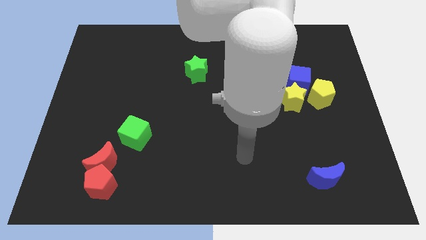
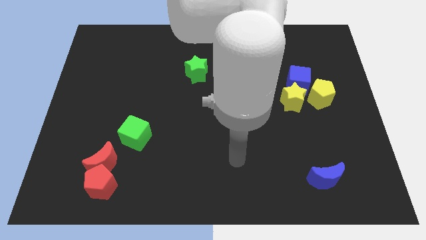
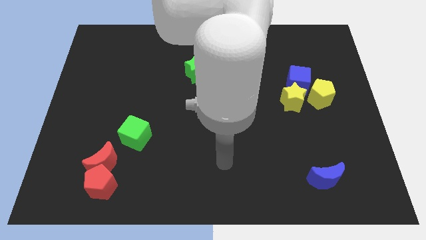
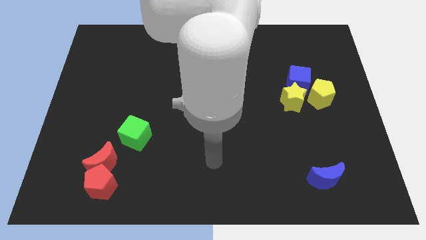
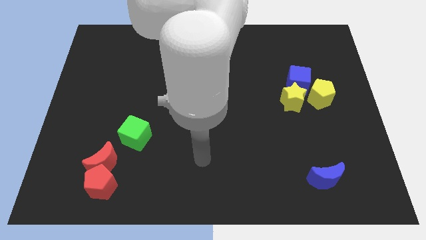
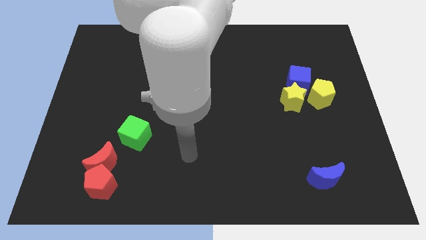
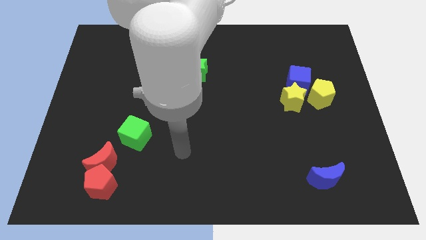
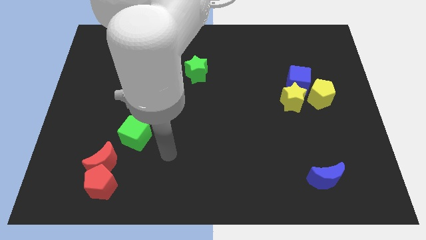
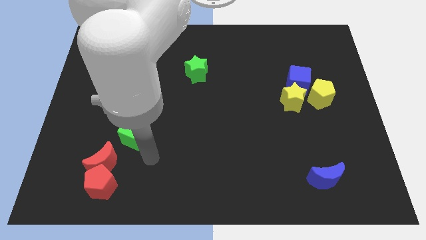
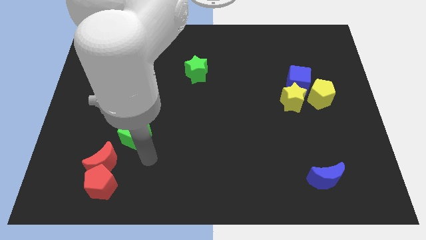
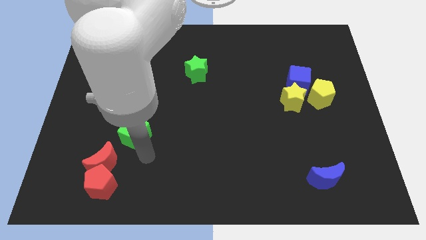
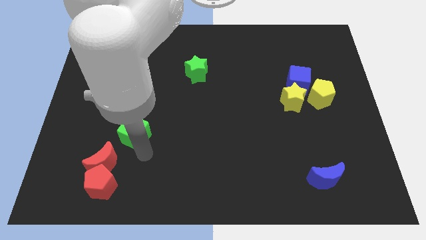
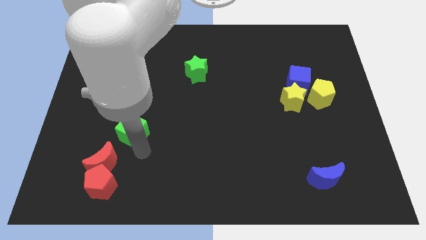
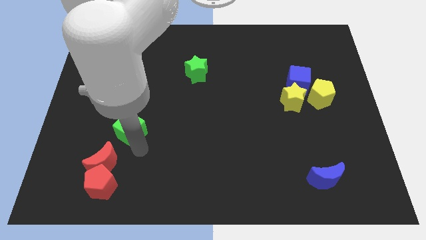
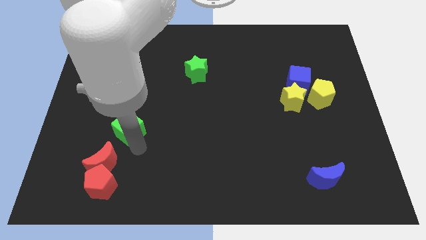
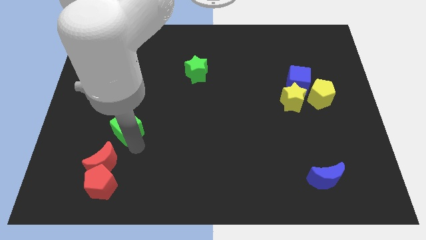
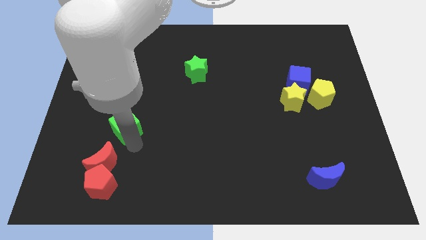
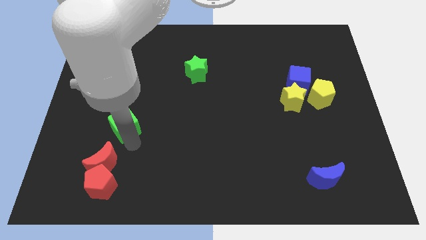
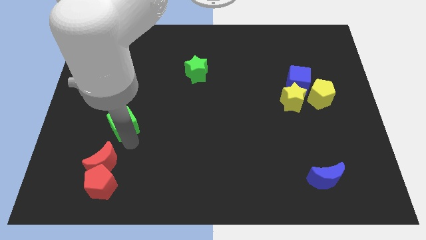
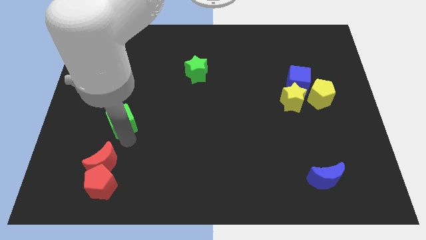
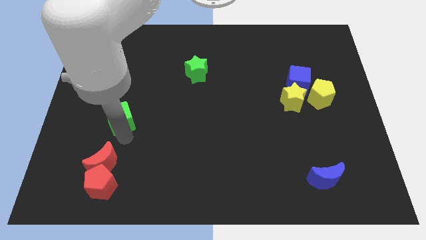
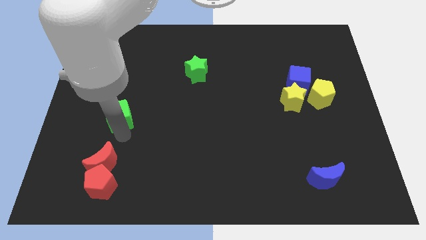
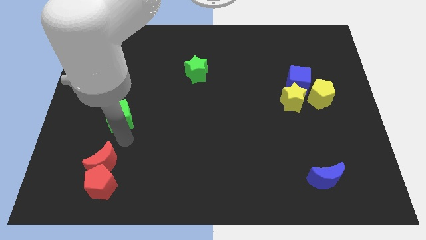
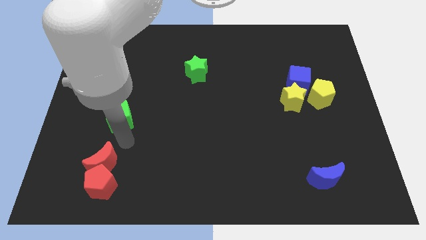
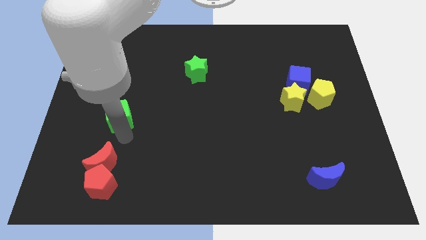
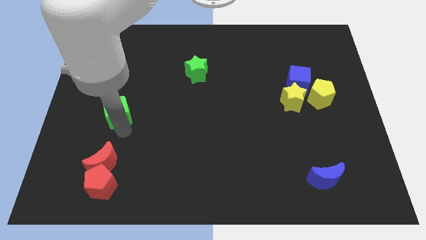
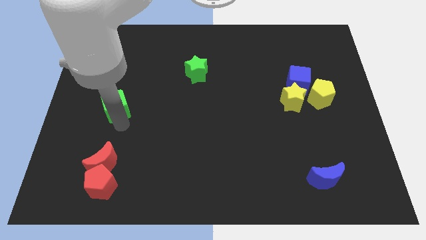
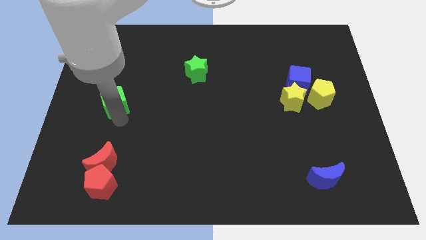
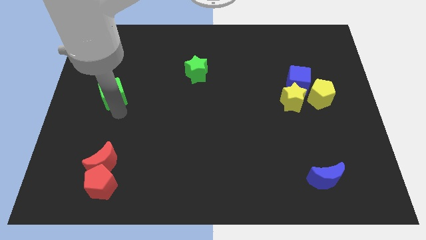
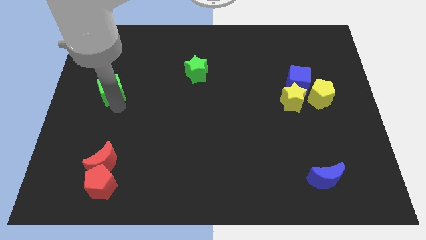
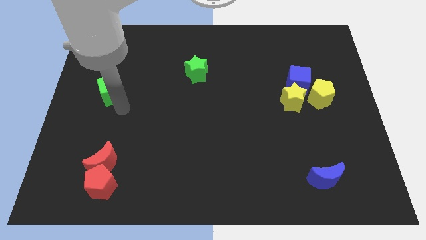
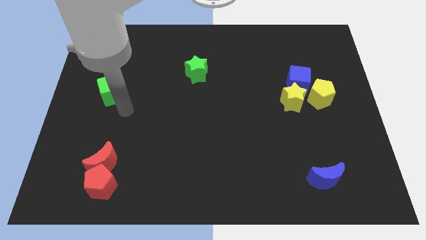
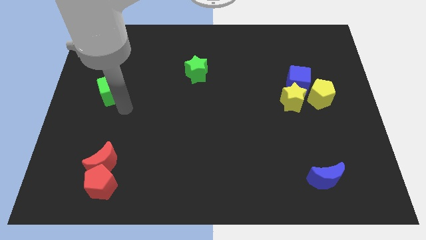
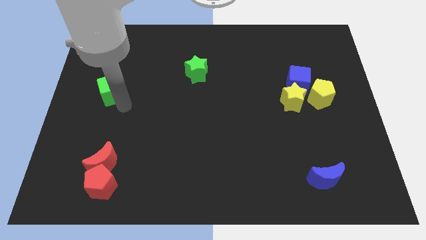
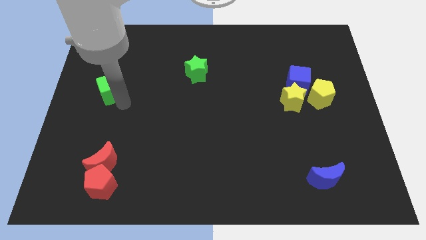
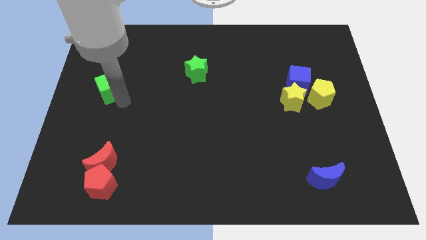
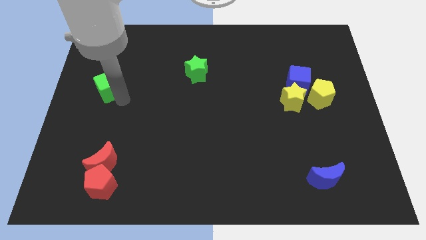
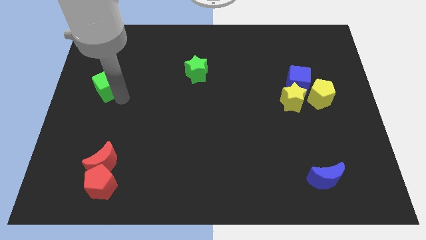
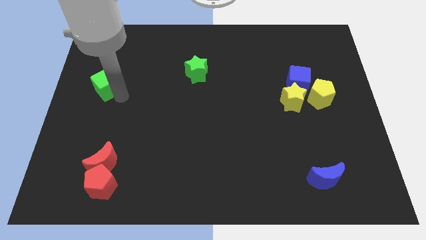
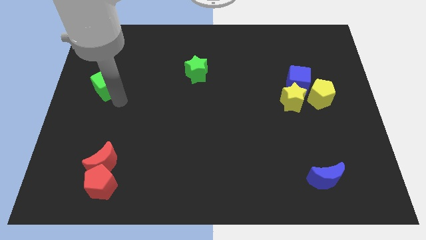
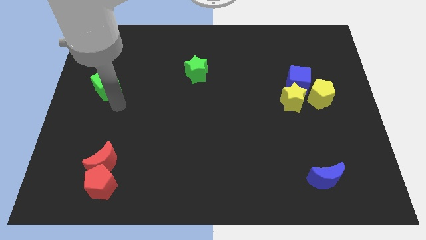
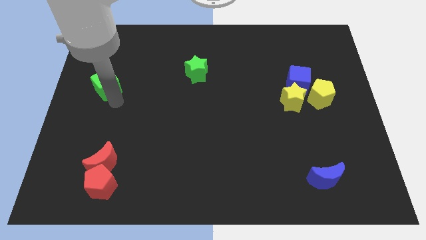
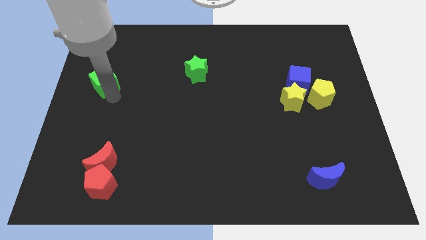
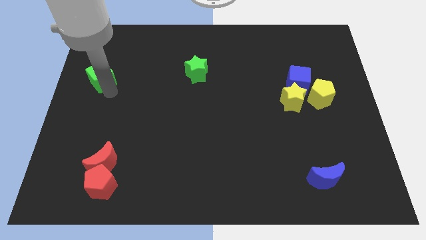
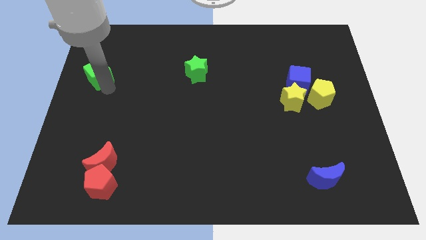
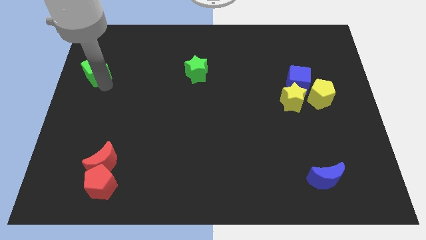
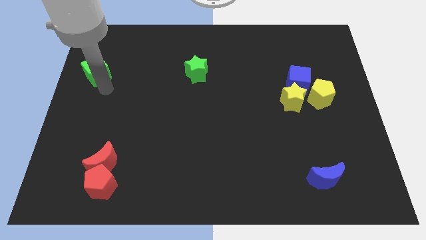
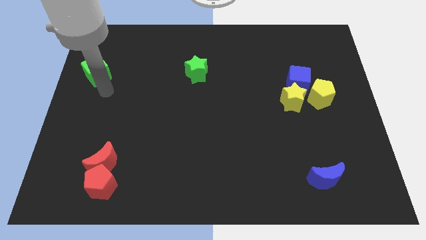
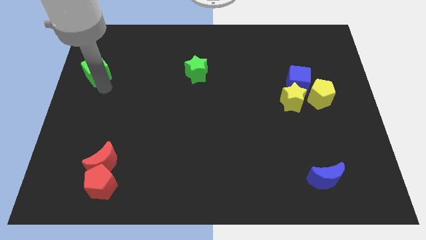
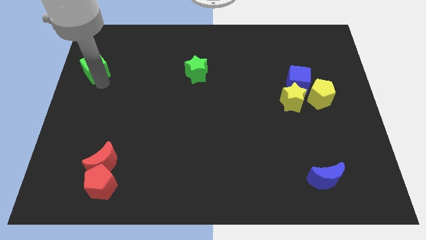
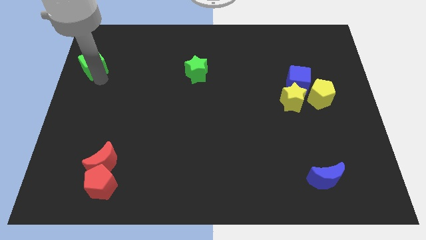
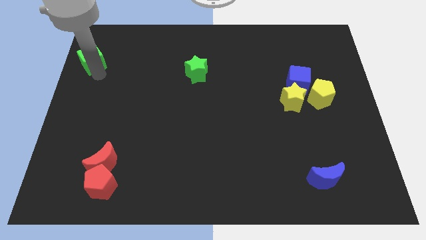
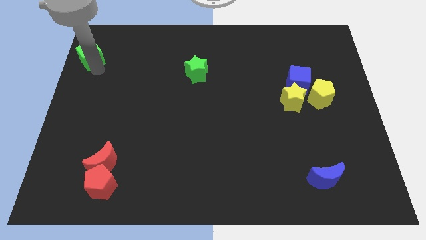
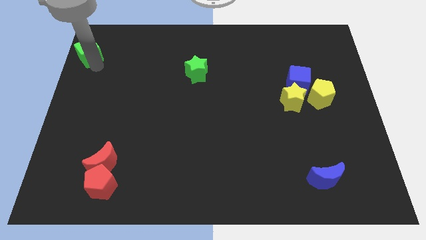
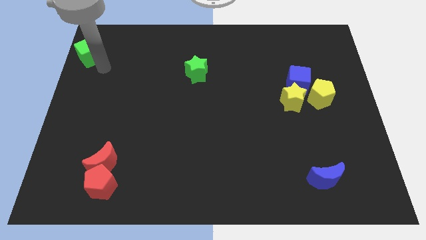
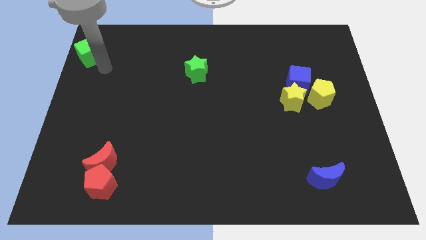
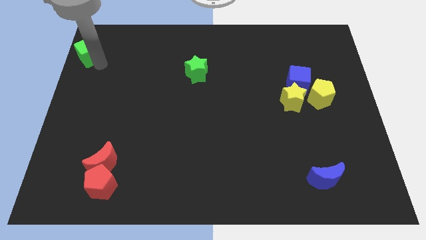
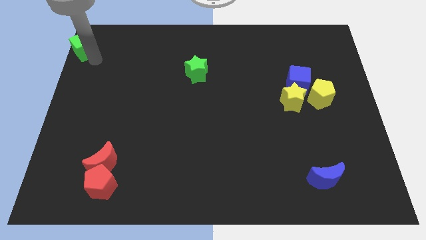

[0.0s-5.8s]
slide the green cube to the upper left corner

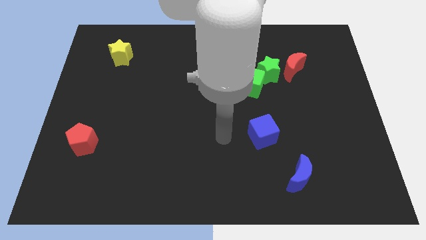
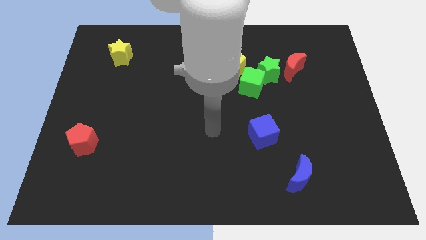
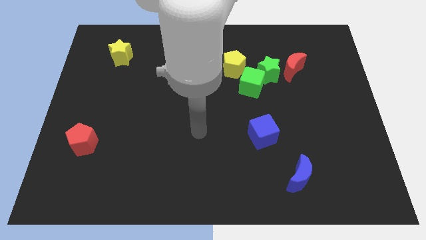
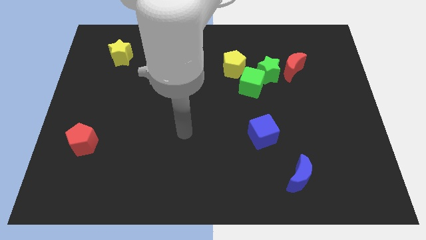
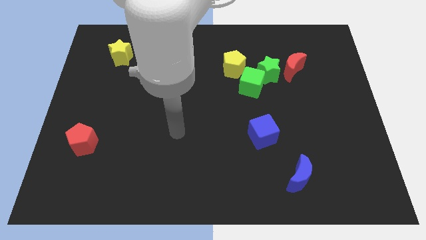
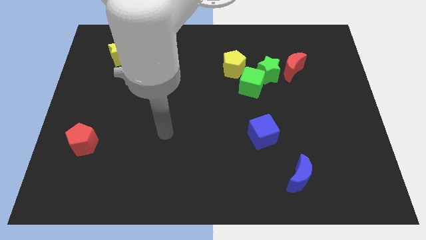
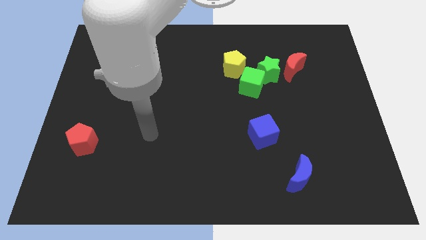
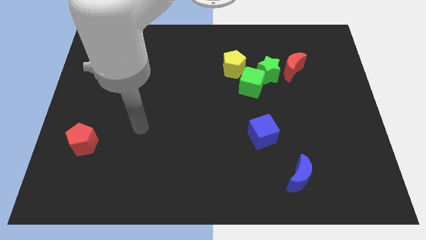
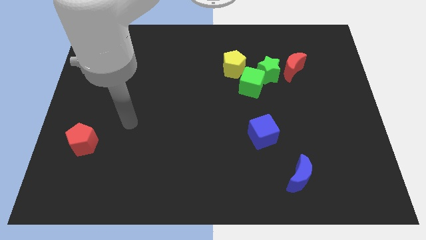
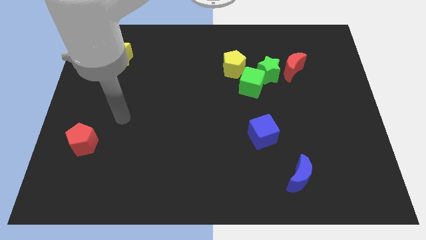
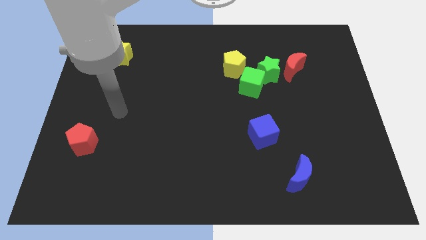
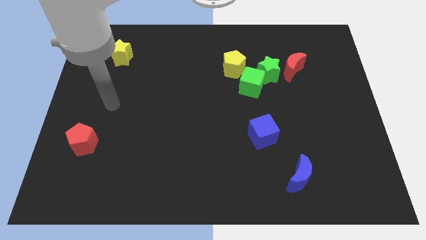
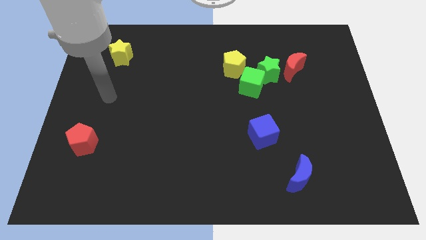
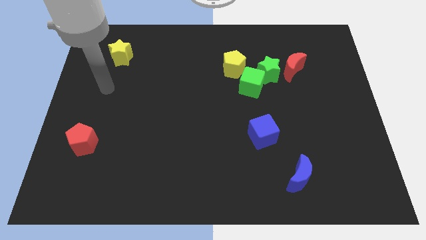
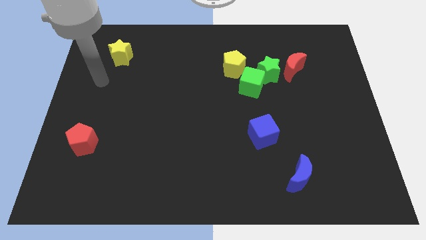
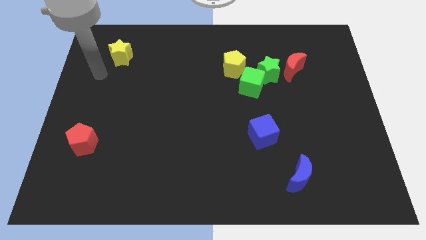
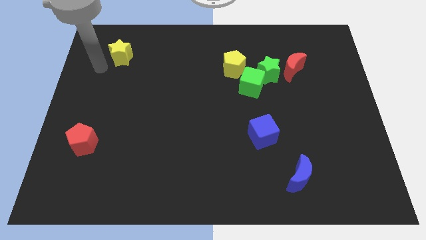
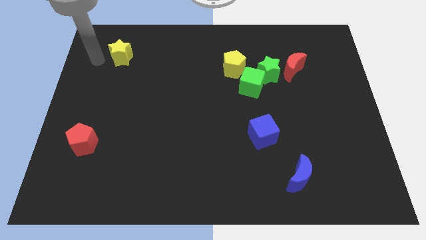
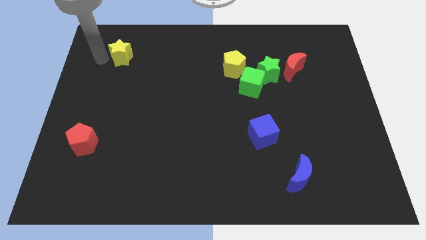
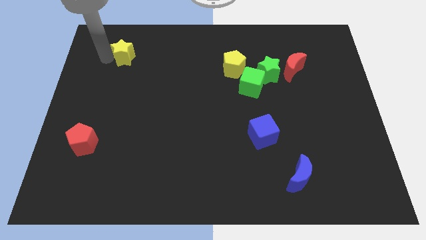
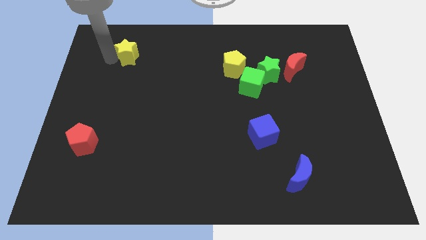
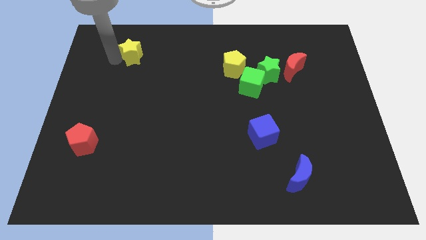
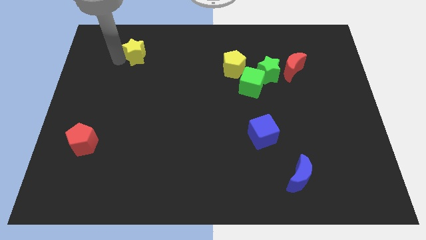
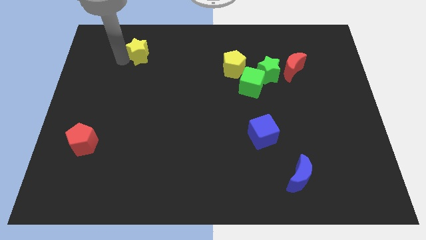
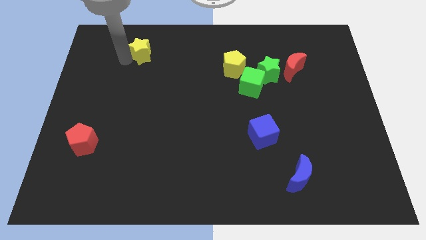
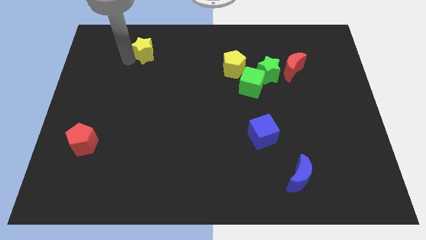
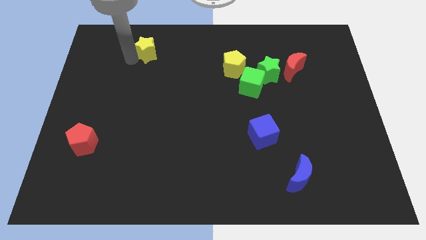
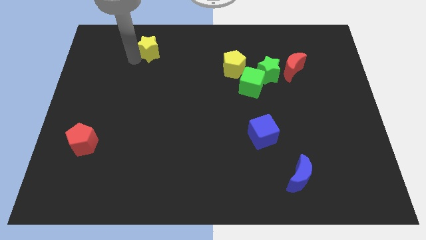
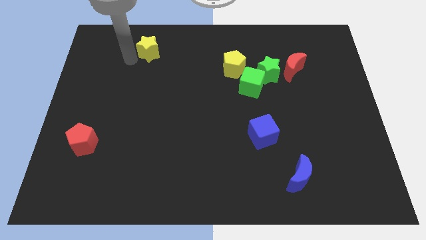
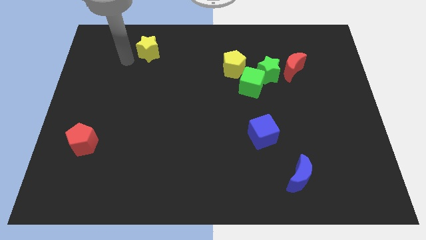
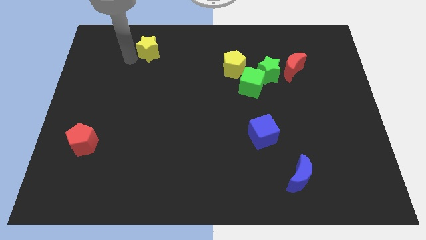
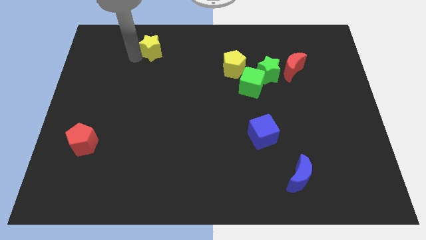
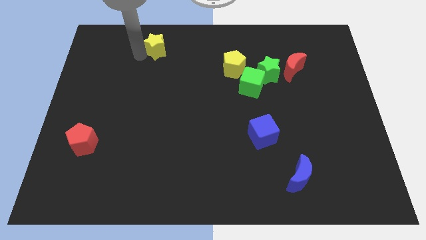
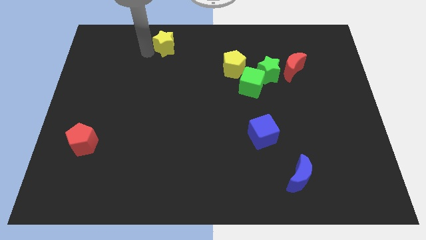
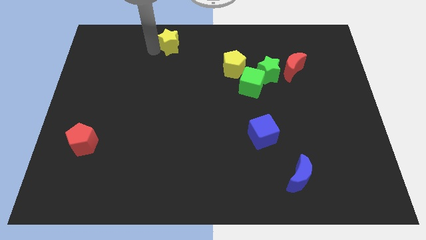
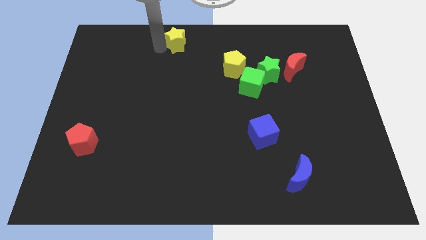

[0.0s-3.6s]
slide the yellow star to the top
